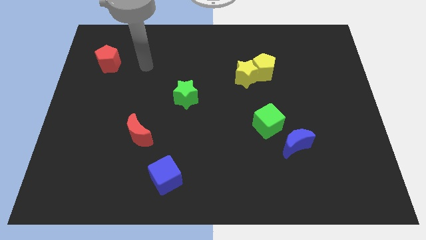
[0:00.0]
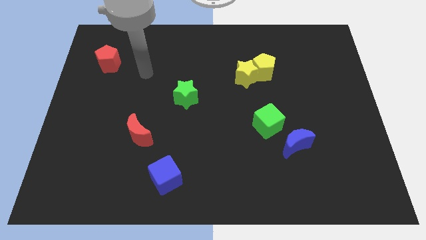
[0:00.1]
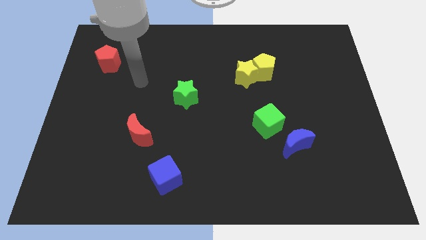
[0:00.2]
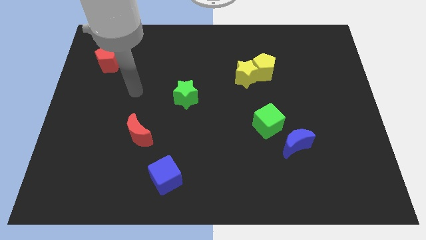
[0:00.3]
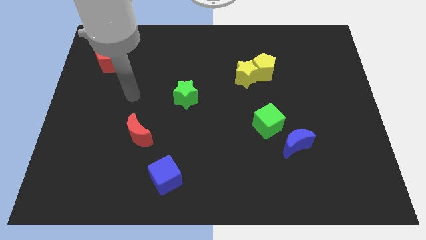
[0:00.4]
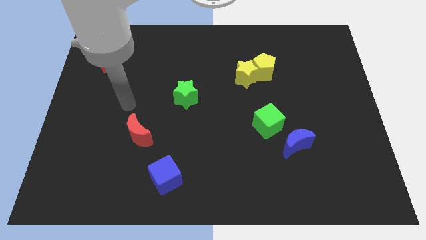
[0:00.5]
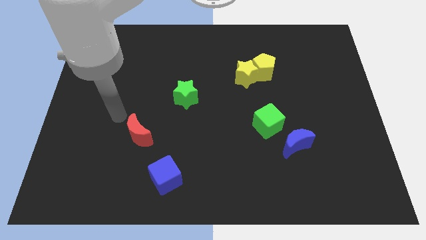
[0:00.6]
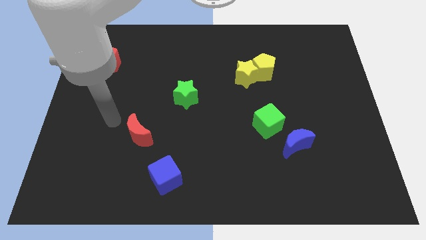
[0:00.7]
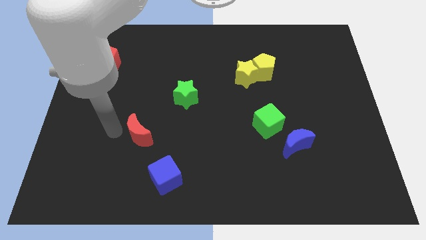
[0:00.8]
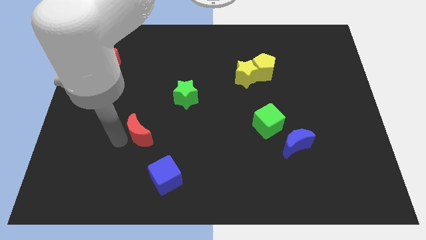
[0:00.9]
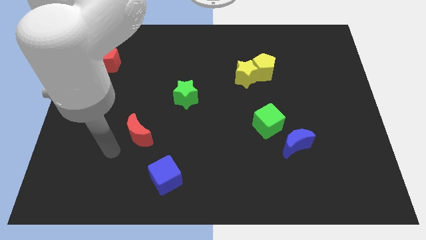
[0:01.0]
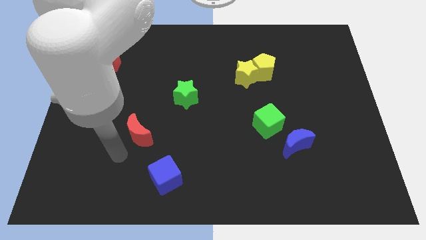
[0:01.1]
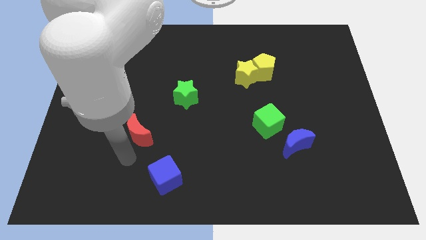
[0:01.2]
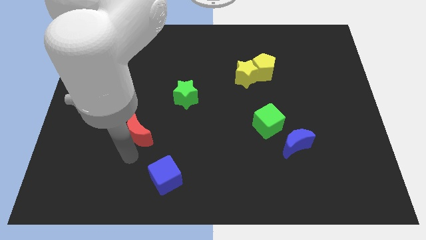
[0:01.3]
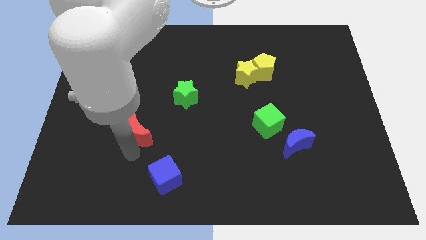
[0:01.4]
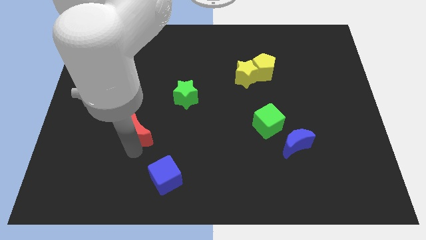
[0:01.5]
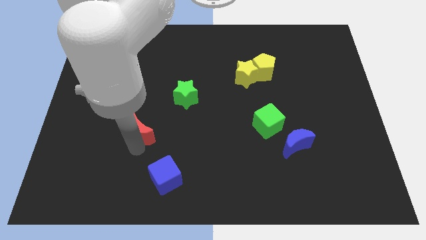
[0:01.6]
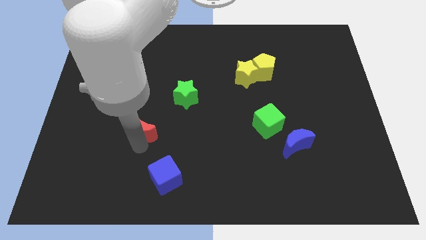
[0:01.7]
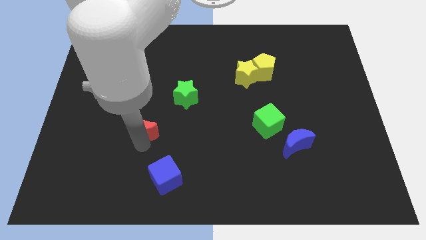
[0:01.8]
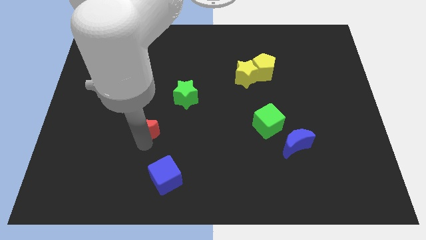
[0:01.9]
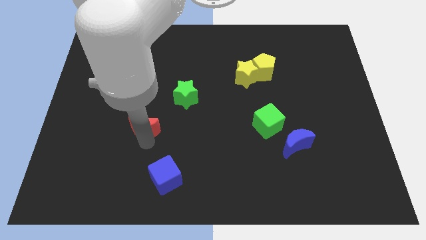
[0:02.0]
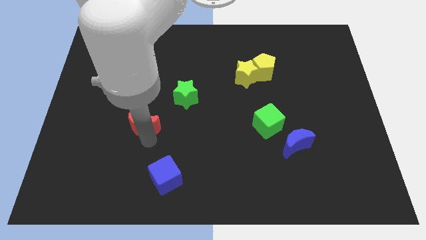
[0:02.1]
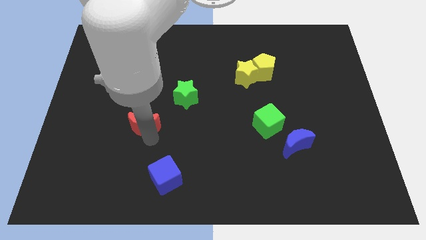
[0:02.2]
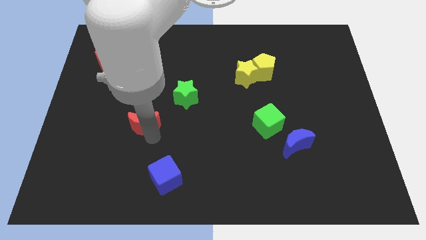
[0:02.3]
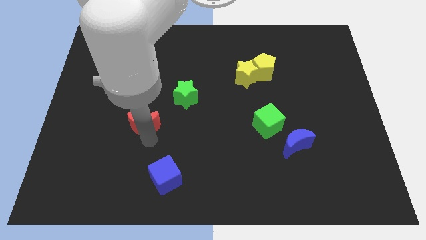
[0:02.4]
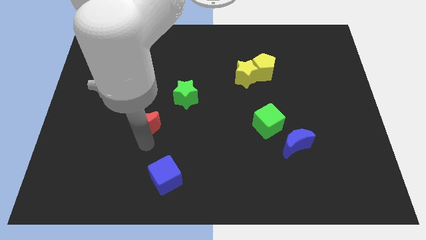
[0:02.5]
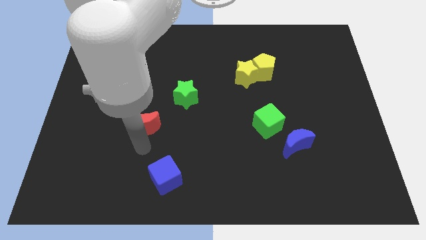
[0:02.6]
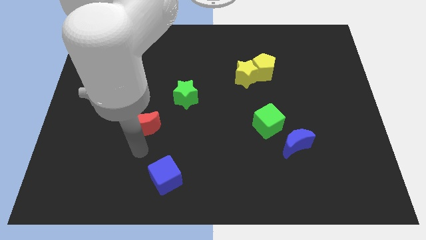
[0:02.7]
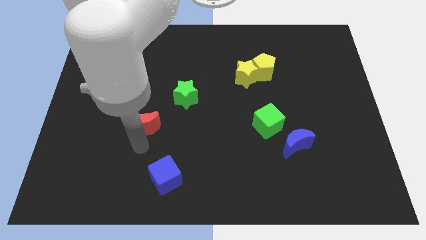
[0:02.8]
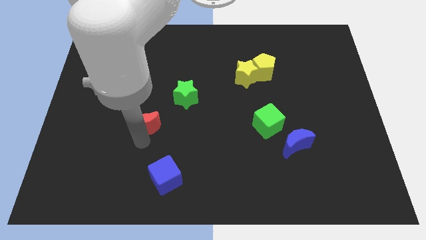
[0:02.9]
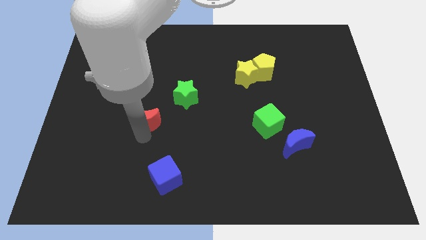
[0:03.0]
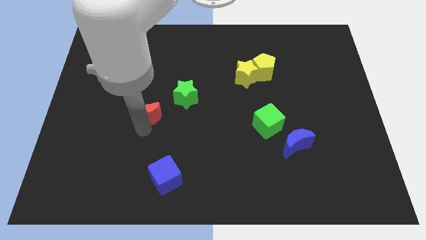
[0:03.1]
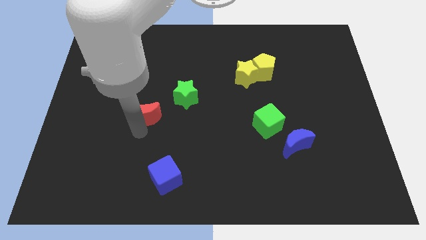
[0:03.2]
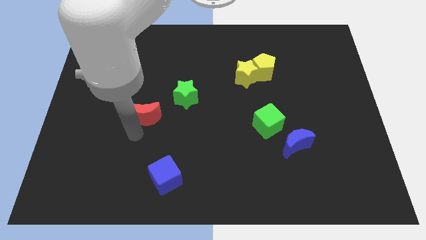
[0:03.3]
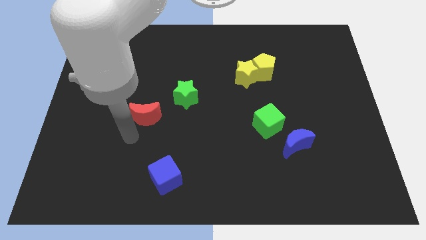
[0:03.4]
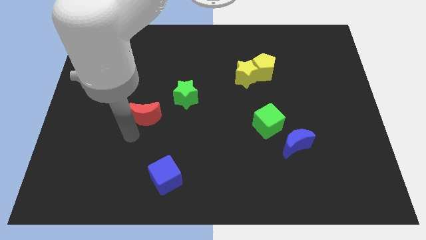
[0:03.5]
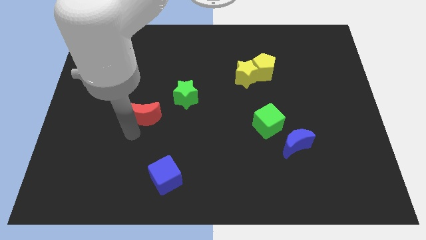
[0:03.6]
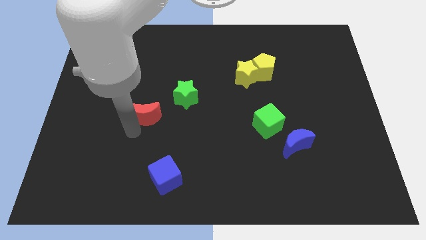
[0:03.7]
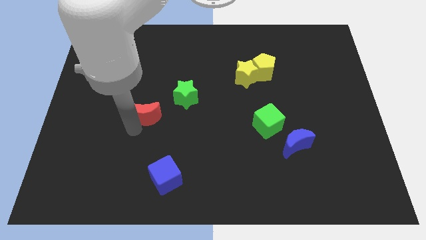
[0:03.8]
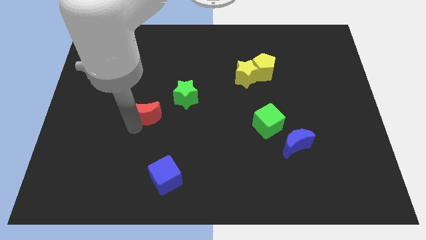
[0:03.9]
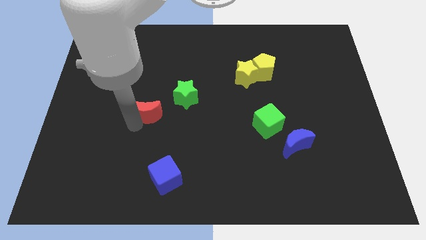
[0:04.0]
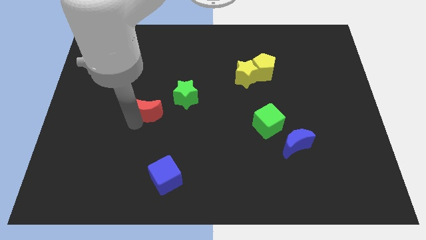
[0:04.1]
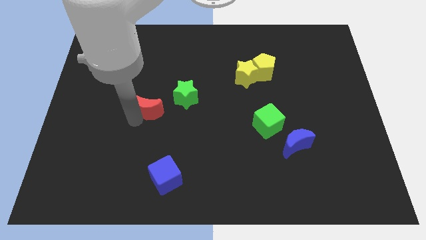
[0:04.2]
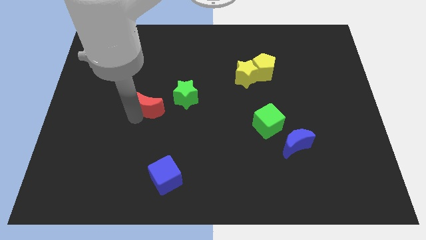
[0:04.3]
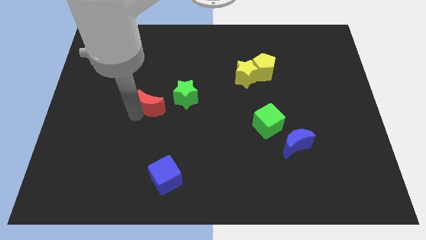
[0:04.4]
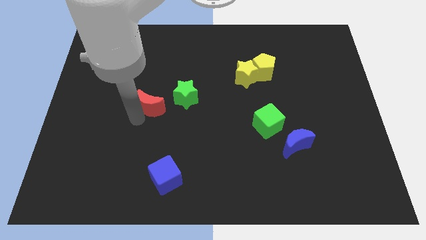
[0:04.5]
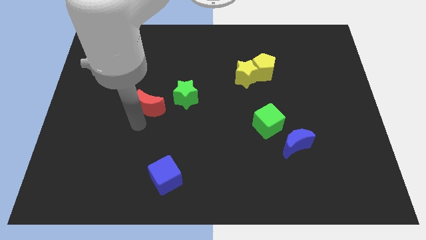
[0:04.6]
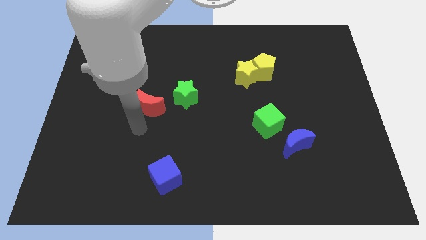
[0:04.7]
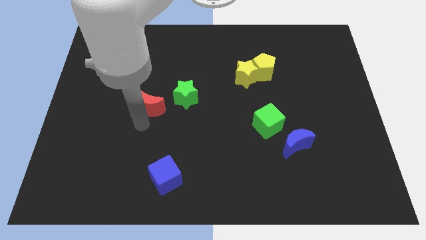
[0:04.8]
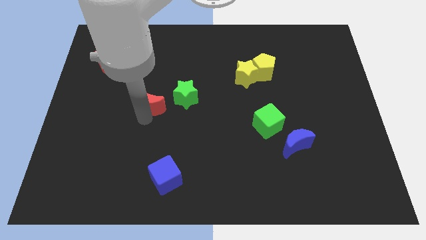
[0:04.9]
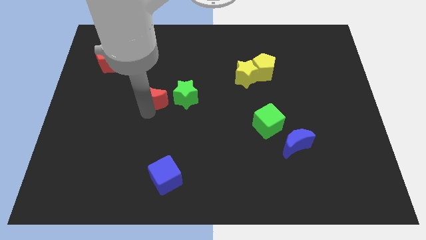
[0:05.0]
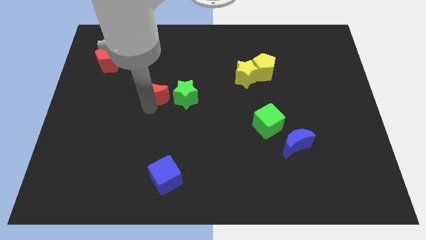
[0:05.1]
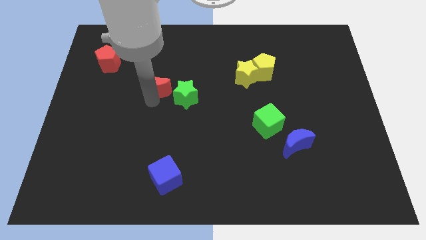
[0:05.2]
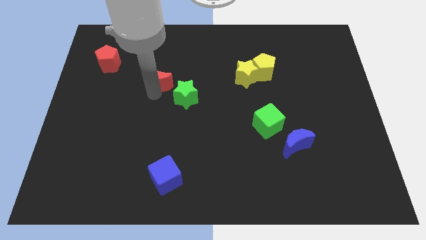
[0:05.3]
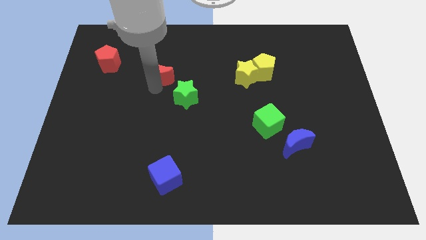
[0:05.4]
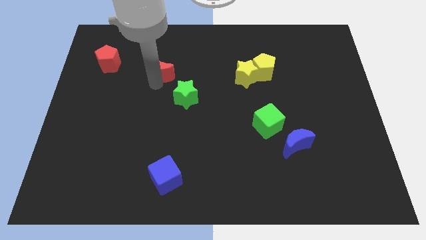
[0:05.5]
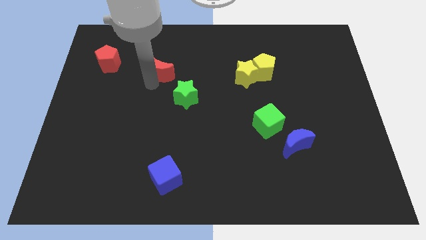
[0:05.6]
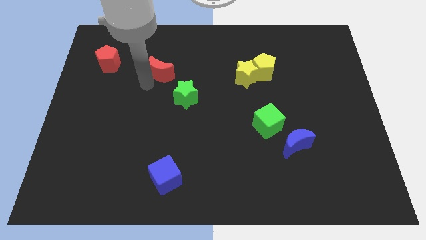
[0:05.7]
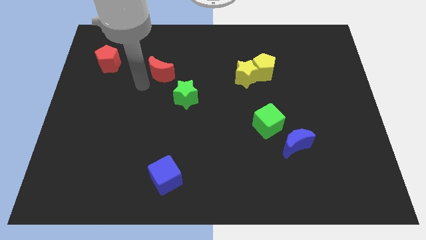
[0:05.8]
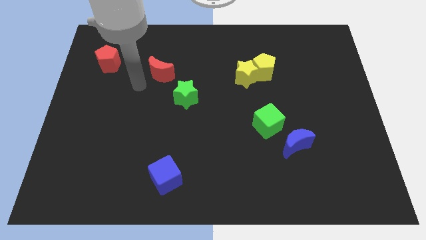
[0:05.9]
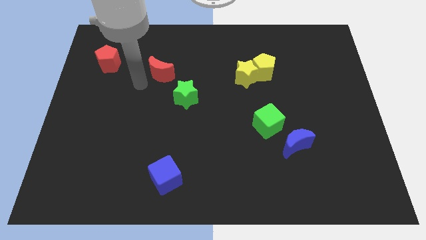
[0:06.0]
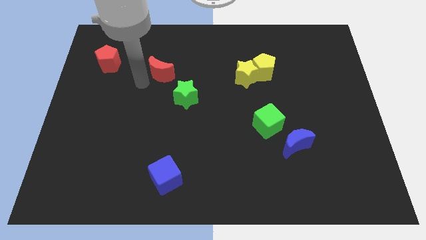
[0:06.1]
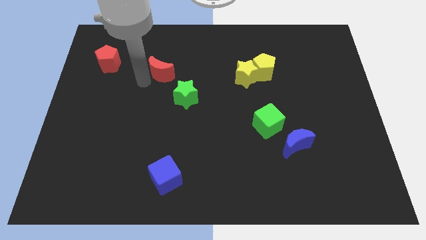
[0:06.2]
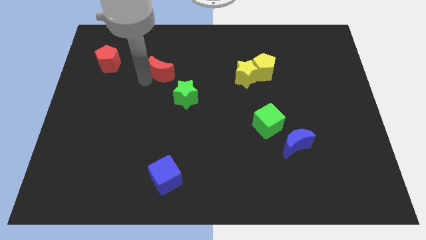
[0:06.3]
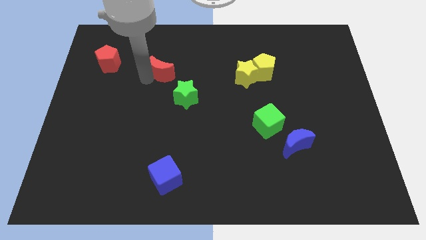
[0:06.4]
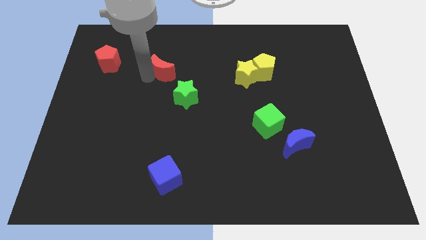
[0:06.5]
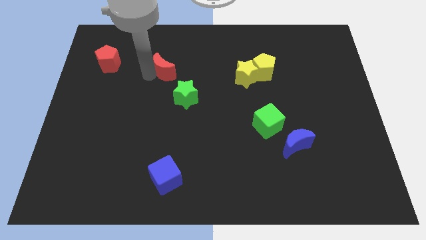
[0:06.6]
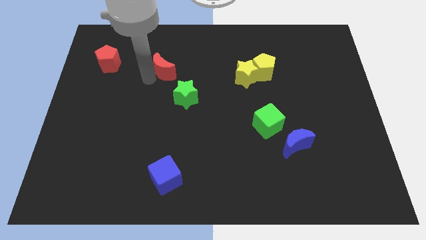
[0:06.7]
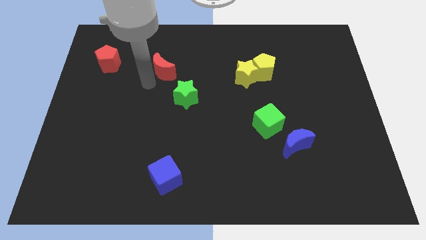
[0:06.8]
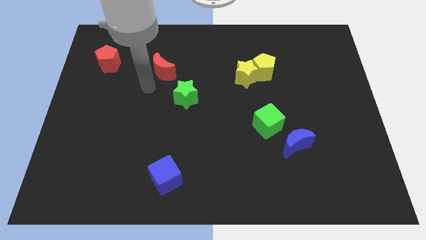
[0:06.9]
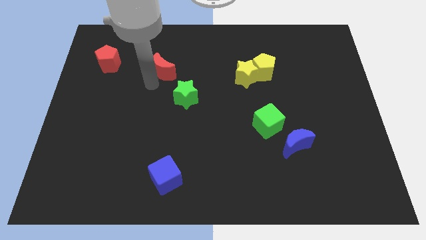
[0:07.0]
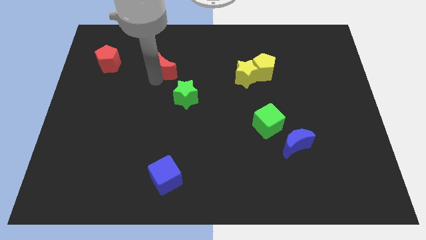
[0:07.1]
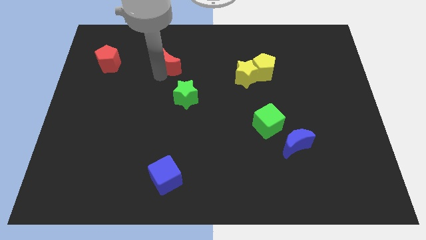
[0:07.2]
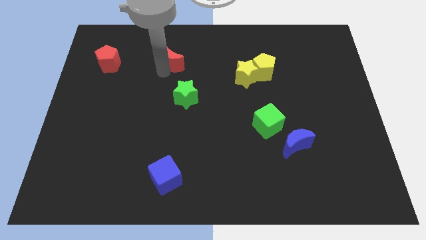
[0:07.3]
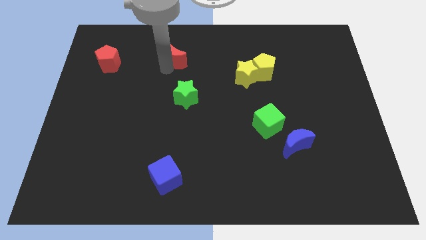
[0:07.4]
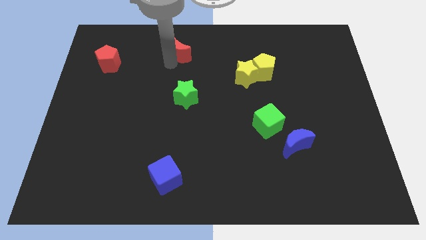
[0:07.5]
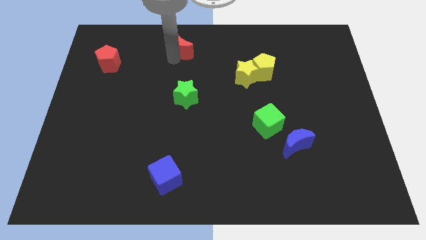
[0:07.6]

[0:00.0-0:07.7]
slide the red moon to the top side
